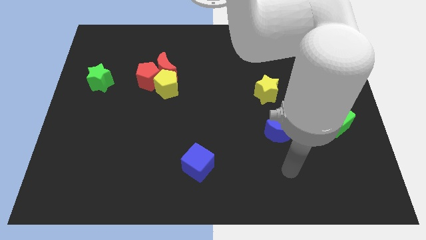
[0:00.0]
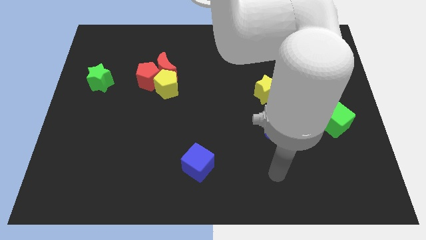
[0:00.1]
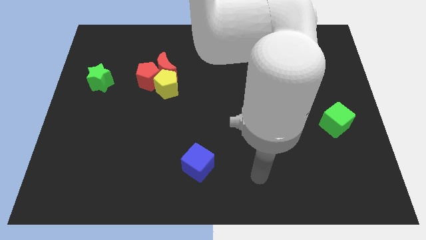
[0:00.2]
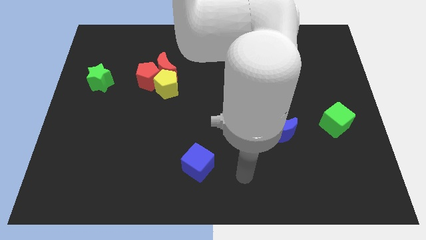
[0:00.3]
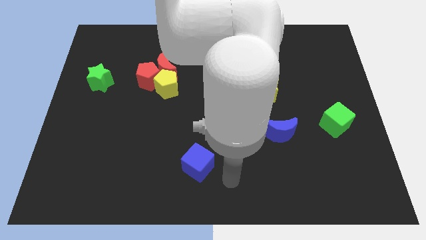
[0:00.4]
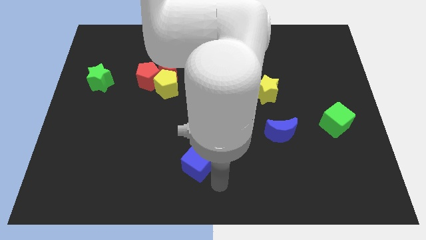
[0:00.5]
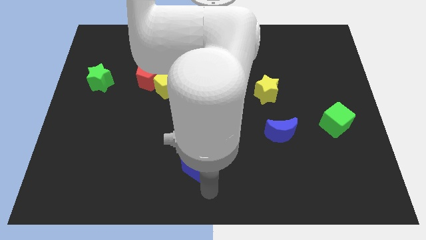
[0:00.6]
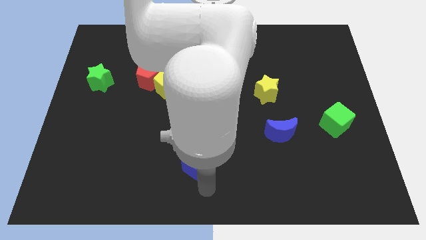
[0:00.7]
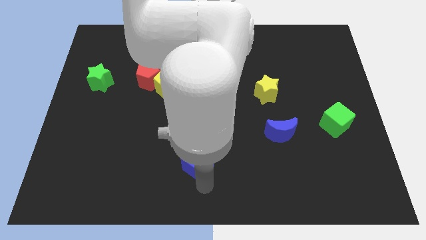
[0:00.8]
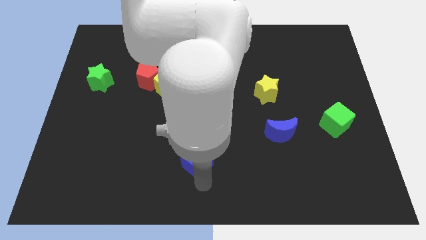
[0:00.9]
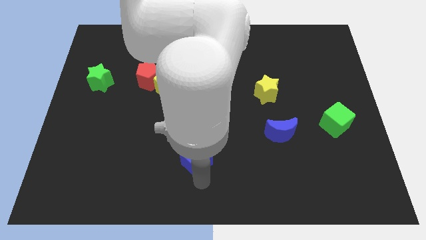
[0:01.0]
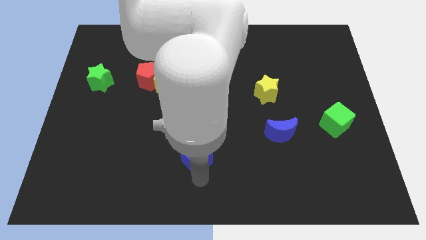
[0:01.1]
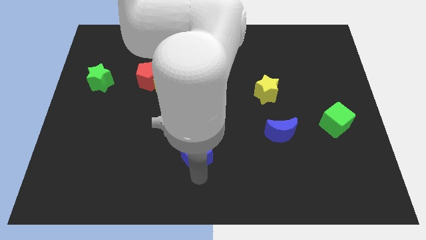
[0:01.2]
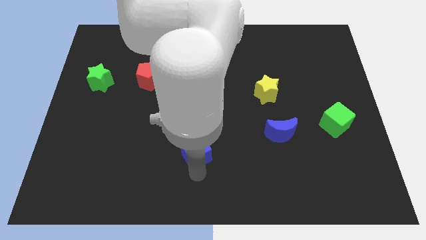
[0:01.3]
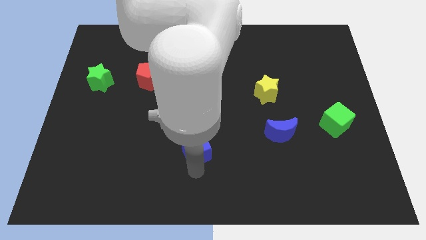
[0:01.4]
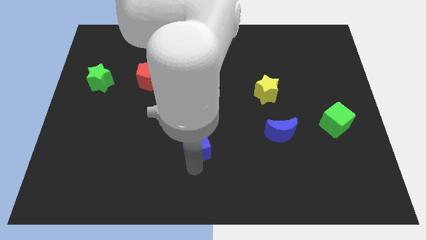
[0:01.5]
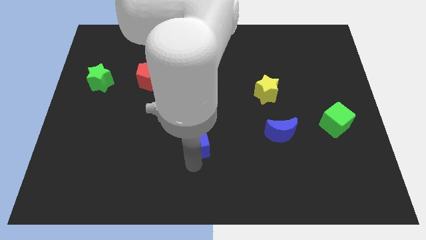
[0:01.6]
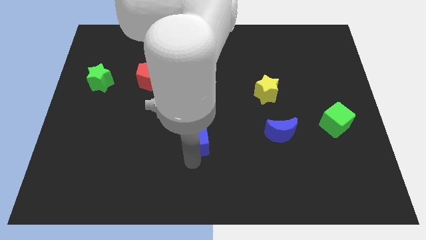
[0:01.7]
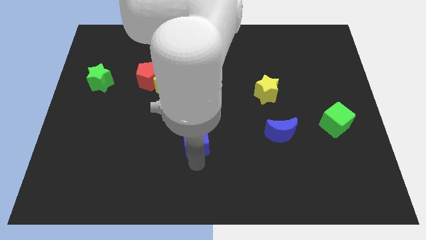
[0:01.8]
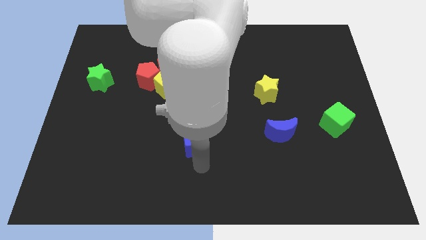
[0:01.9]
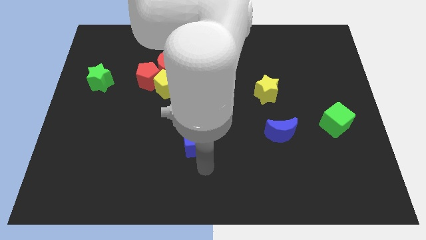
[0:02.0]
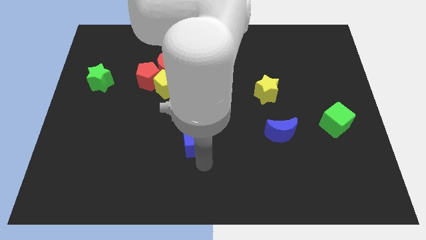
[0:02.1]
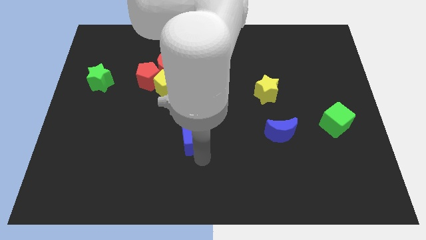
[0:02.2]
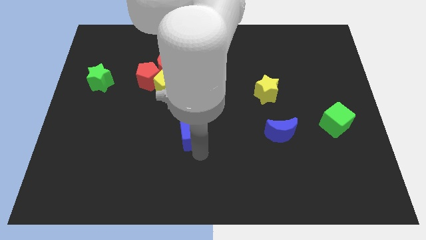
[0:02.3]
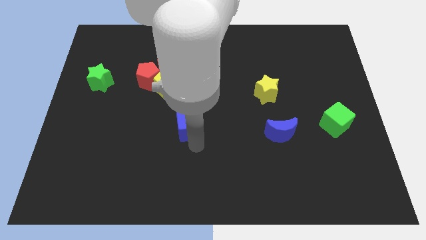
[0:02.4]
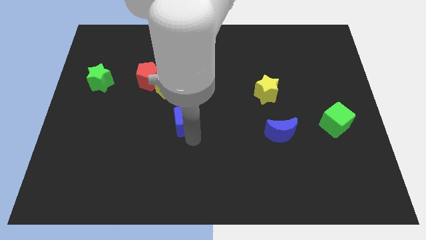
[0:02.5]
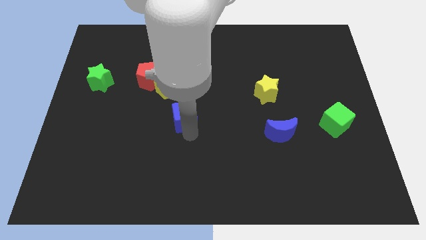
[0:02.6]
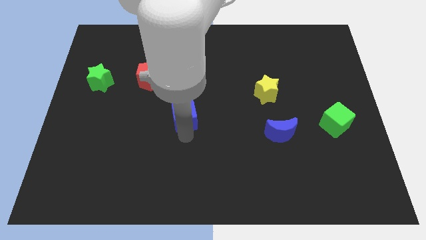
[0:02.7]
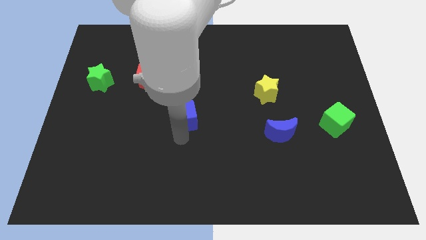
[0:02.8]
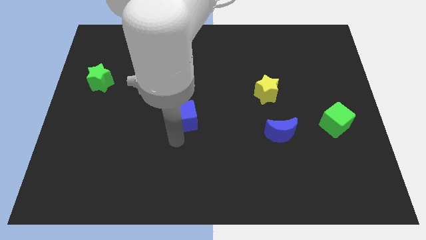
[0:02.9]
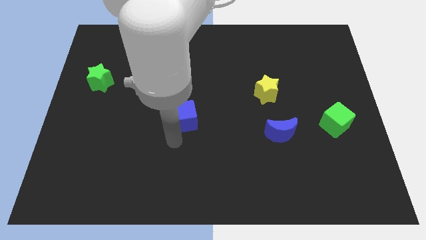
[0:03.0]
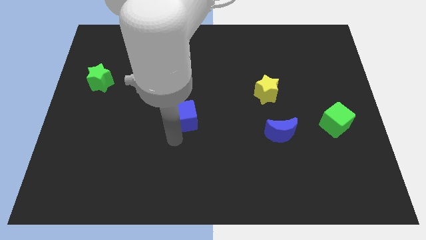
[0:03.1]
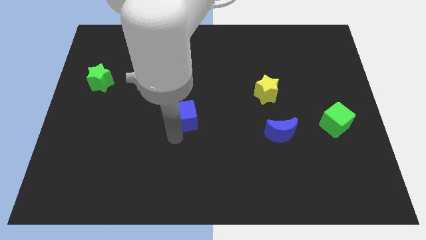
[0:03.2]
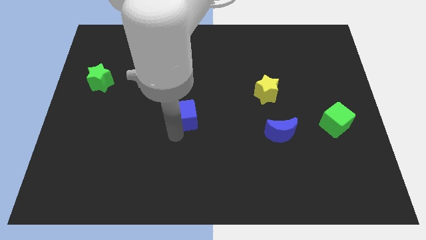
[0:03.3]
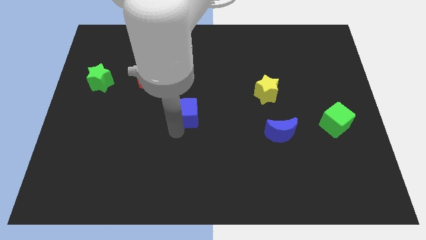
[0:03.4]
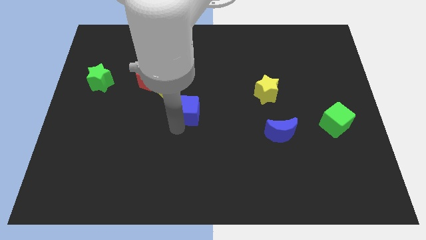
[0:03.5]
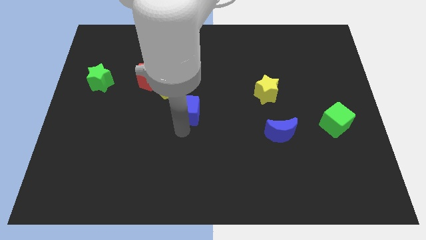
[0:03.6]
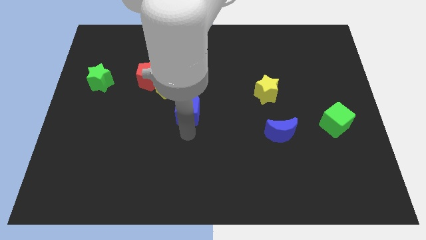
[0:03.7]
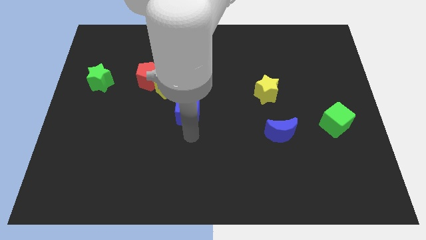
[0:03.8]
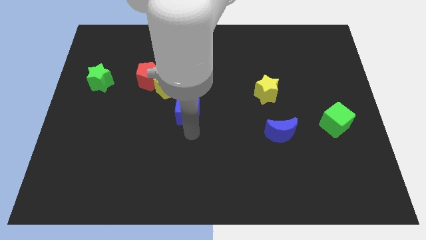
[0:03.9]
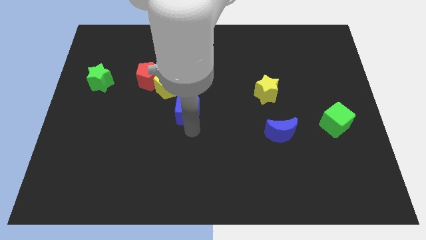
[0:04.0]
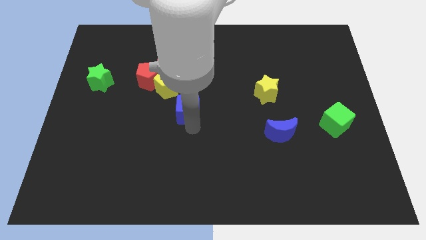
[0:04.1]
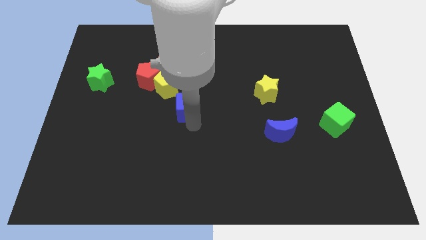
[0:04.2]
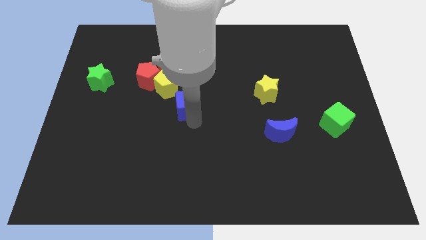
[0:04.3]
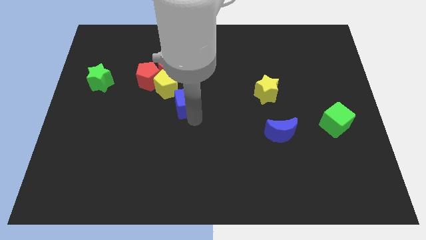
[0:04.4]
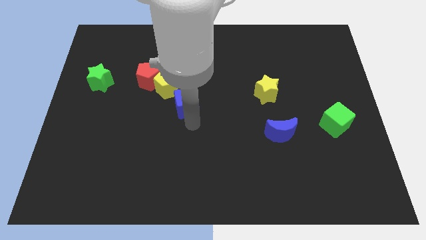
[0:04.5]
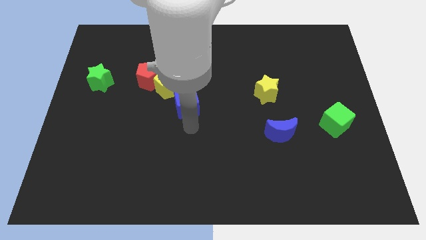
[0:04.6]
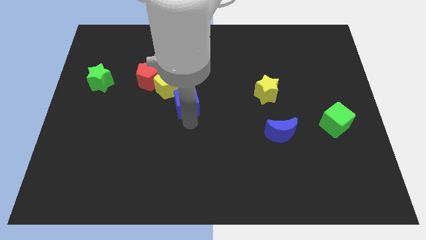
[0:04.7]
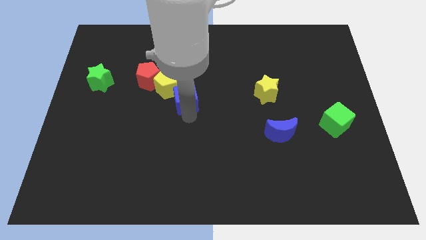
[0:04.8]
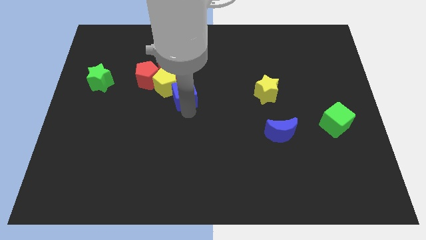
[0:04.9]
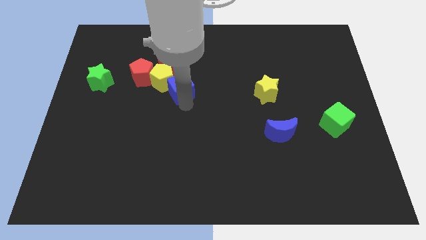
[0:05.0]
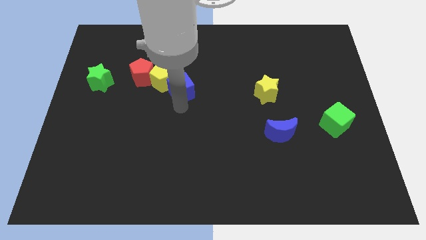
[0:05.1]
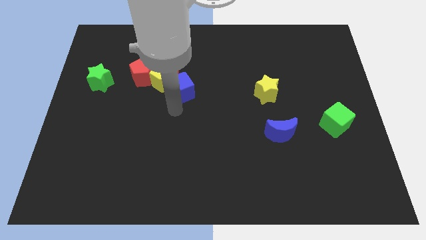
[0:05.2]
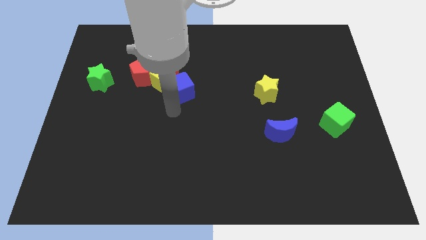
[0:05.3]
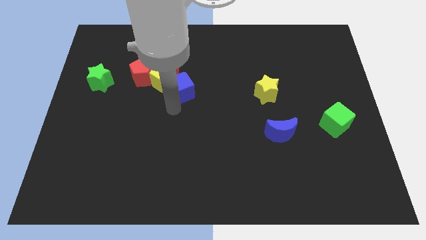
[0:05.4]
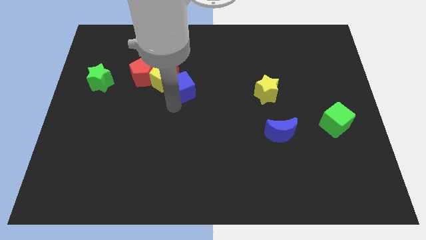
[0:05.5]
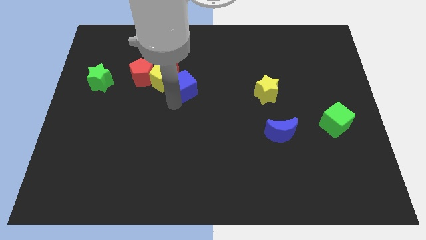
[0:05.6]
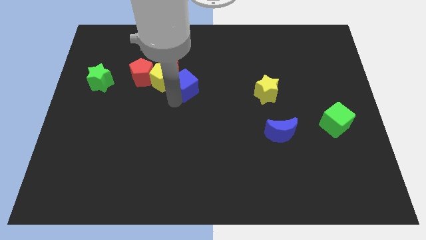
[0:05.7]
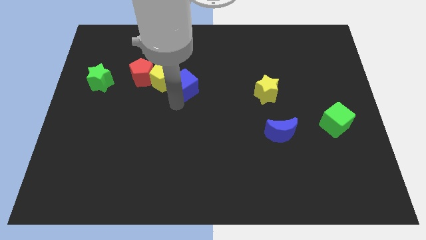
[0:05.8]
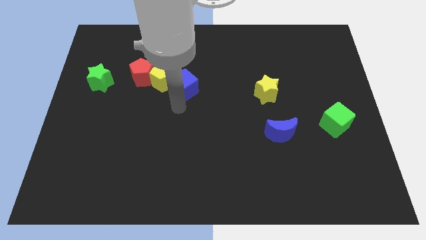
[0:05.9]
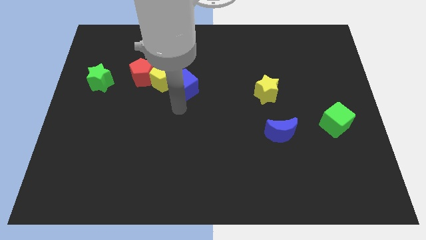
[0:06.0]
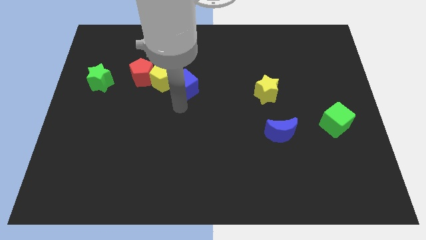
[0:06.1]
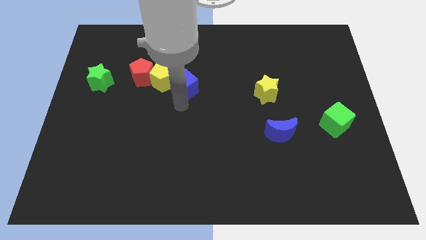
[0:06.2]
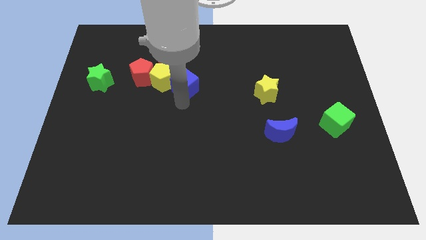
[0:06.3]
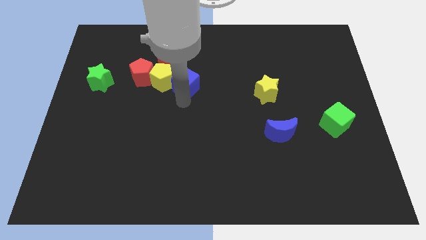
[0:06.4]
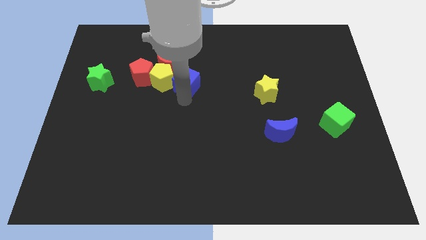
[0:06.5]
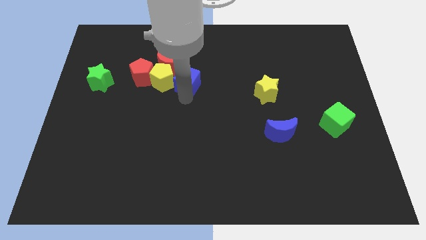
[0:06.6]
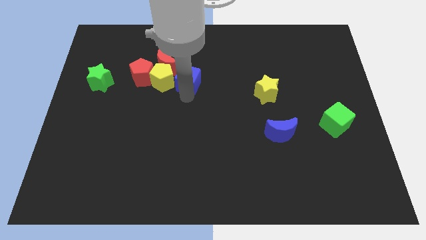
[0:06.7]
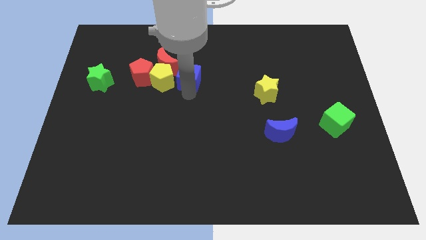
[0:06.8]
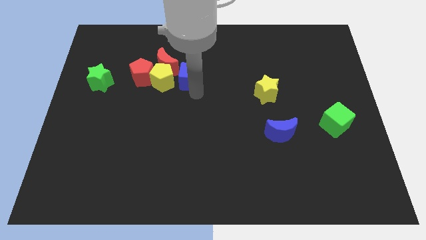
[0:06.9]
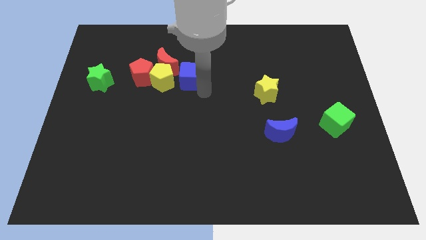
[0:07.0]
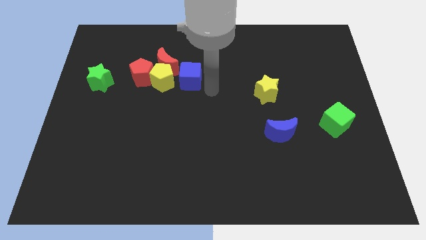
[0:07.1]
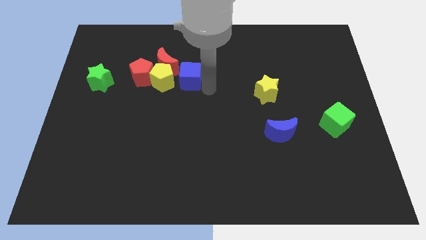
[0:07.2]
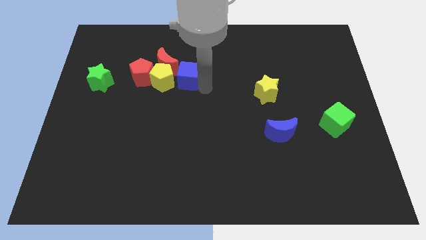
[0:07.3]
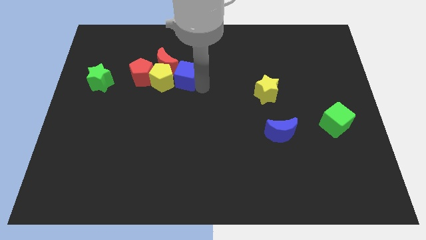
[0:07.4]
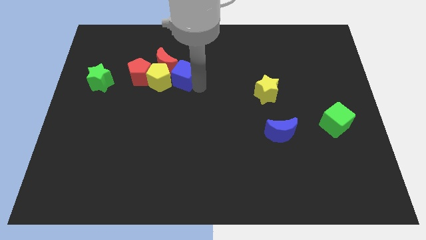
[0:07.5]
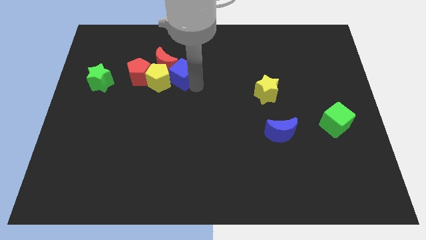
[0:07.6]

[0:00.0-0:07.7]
push the blue cube towards the red moon
